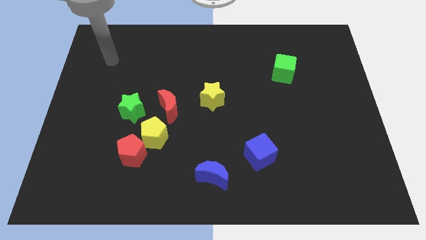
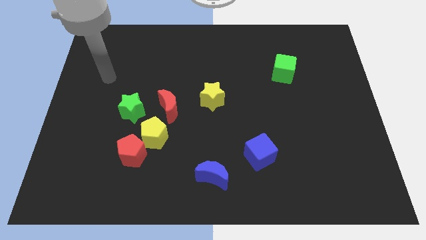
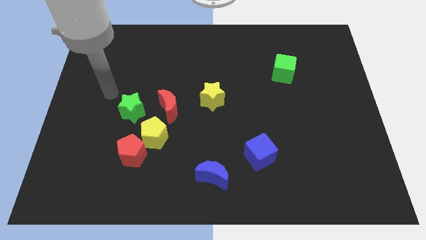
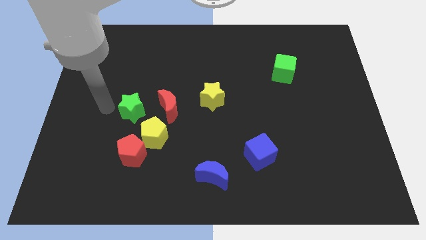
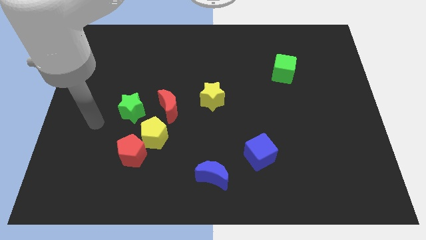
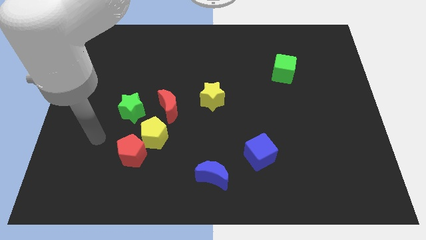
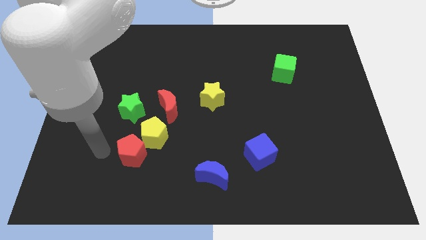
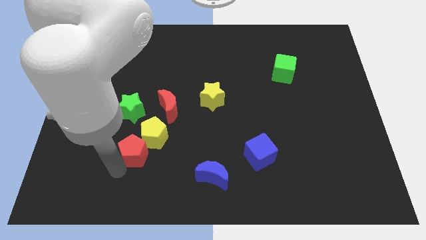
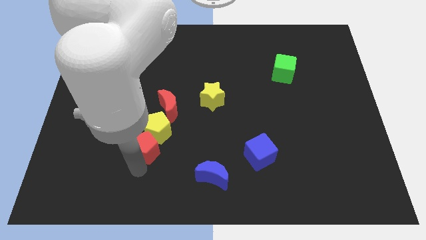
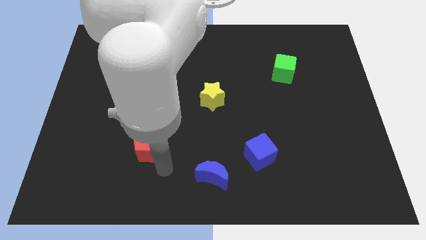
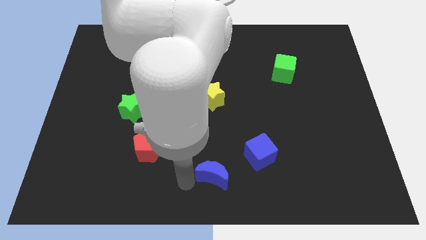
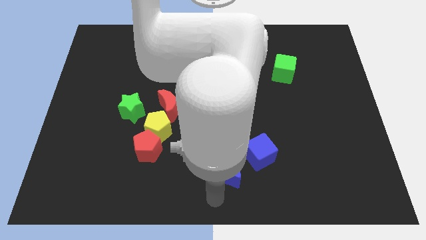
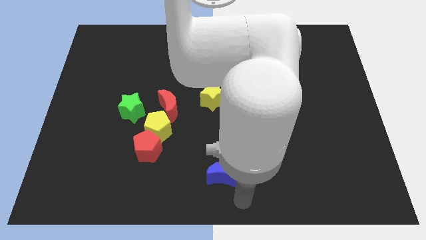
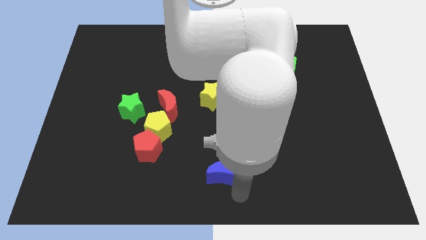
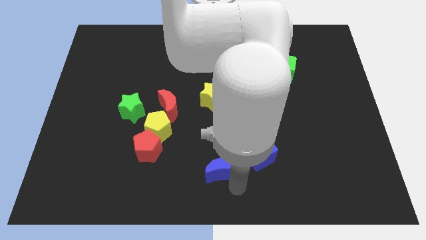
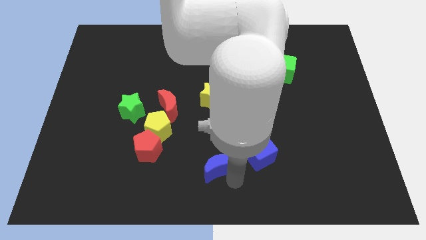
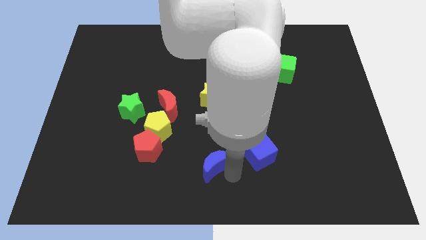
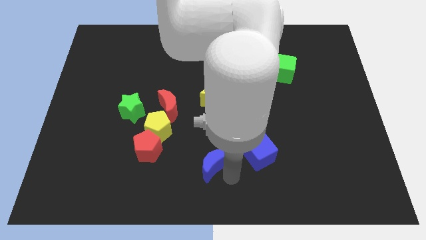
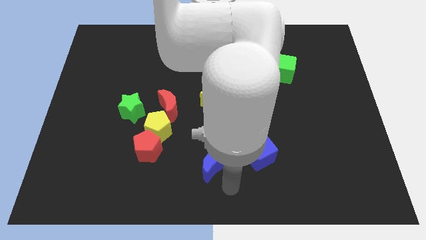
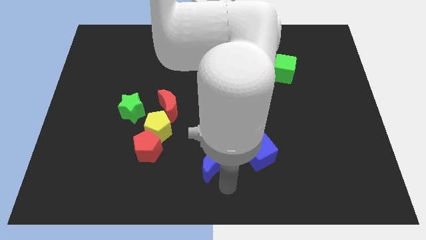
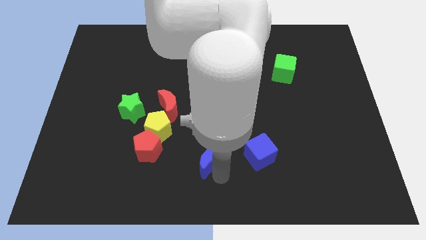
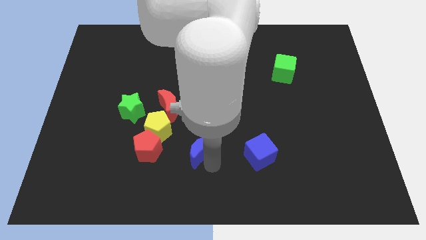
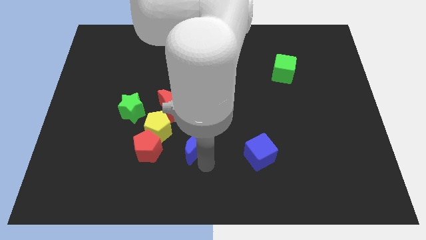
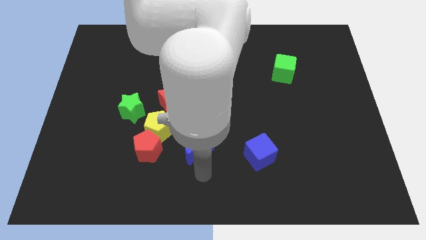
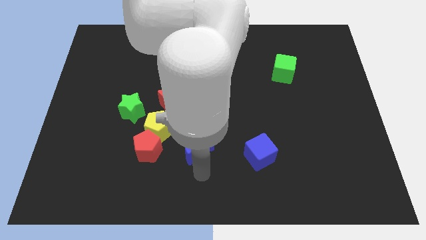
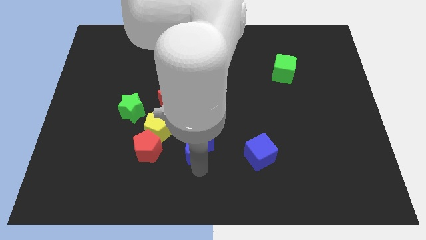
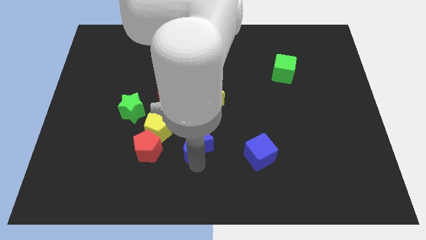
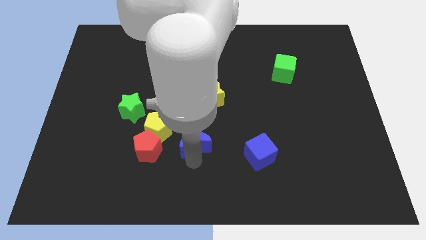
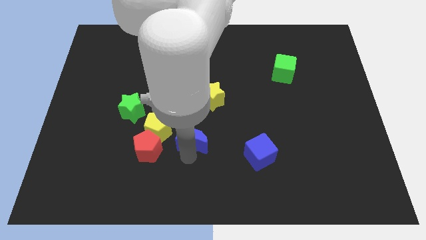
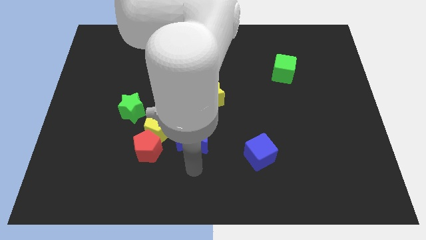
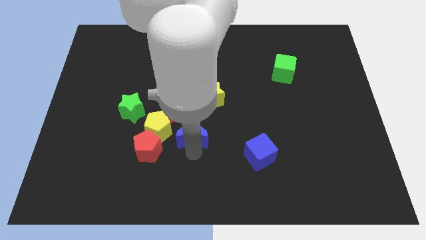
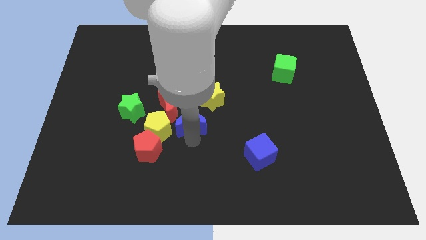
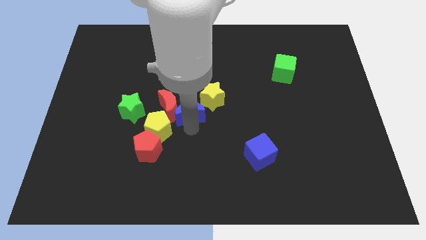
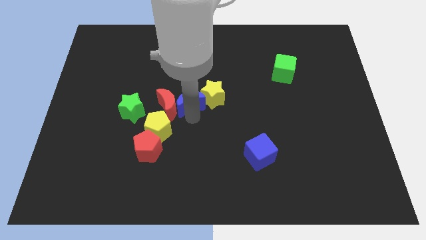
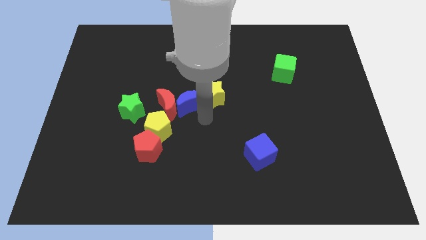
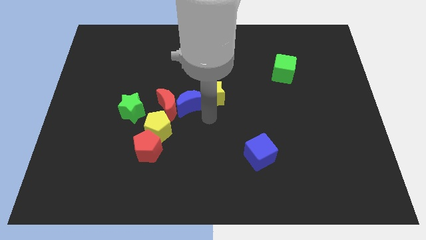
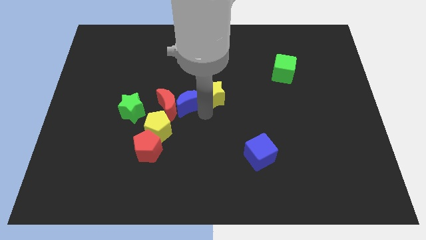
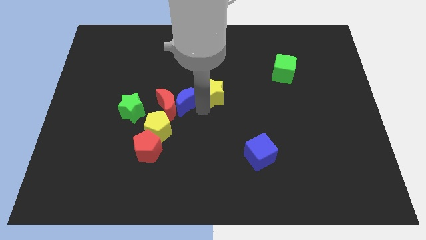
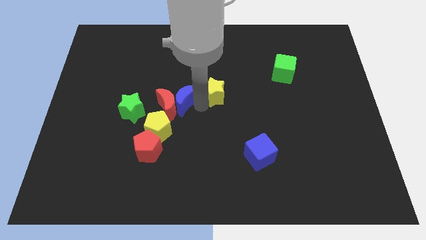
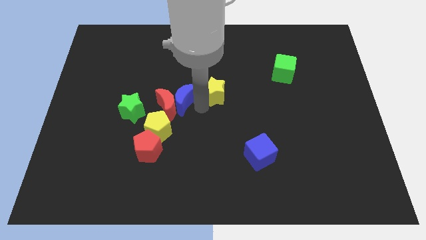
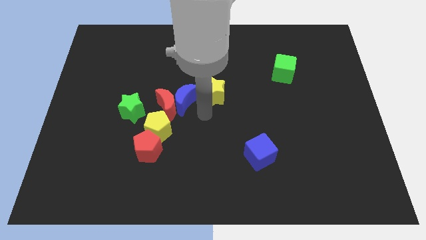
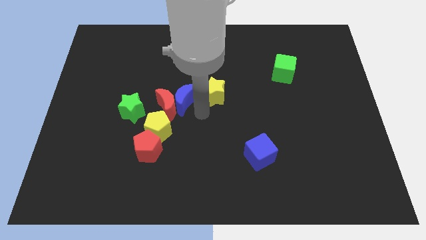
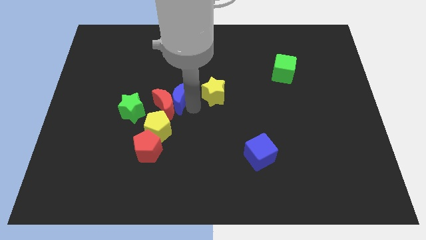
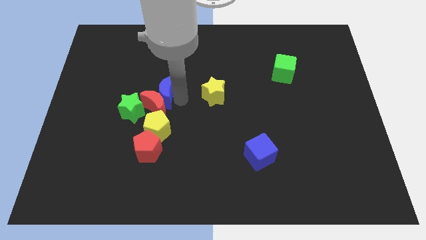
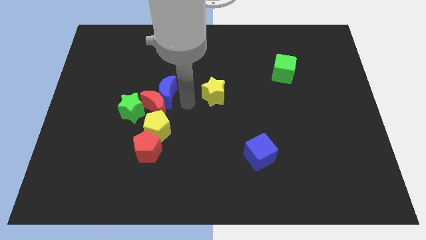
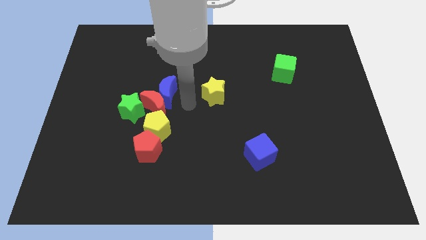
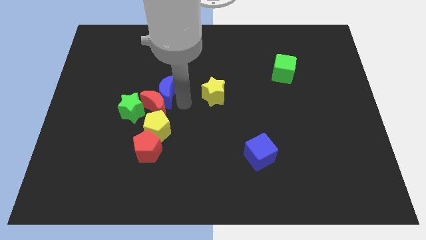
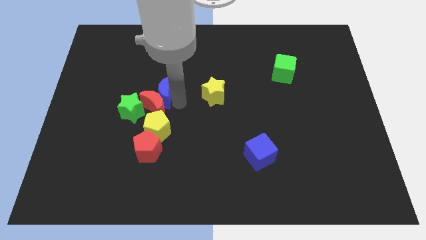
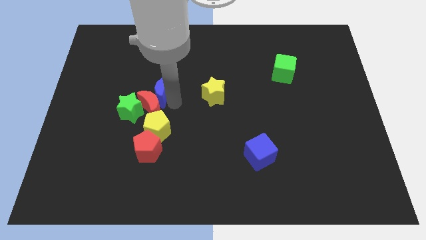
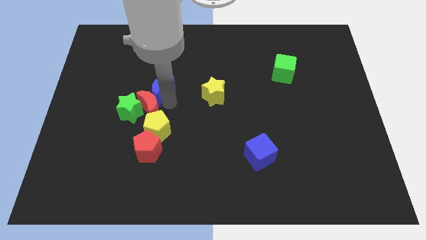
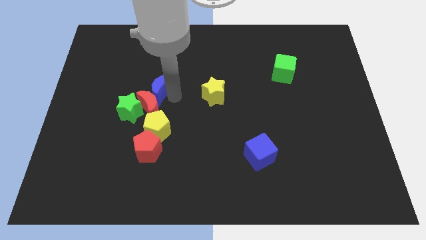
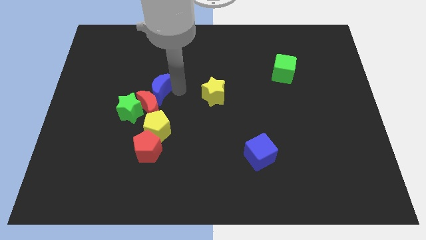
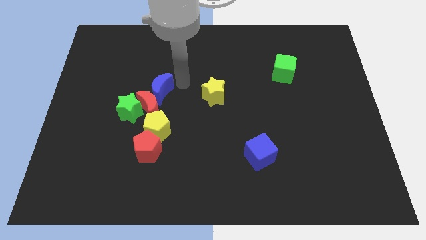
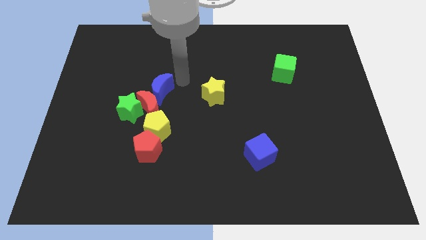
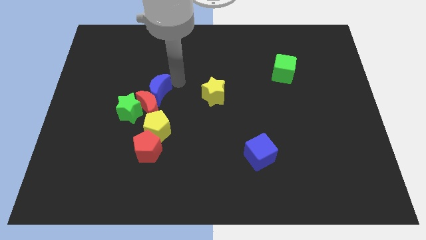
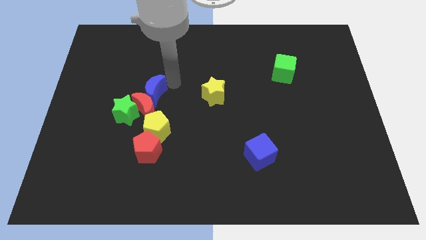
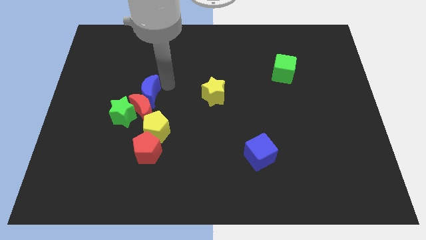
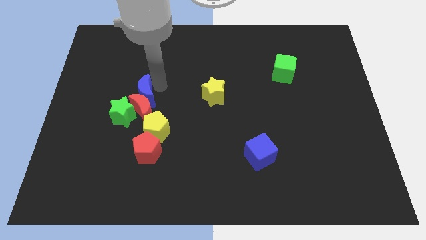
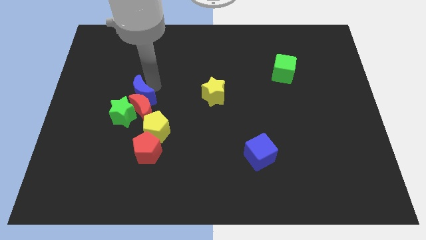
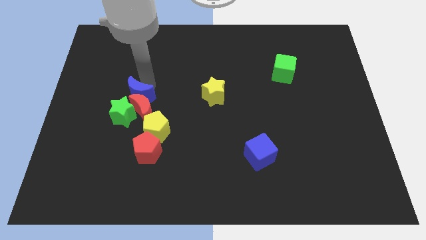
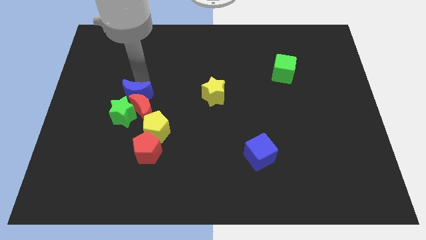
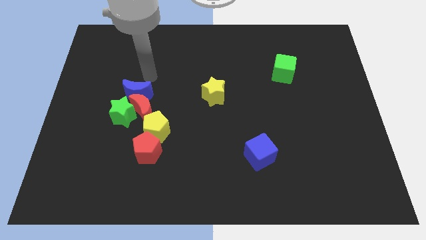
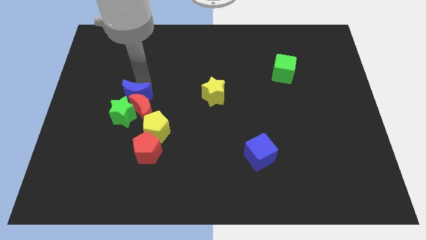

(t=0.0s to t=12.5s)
move the blue moon next to the green star

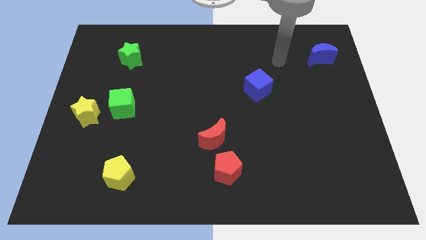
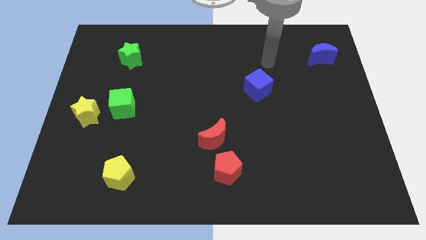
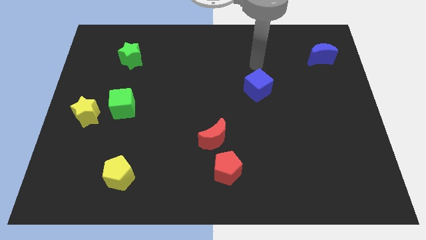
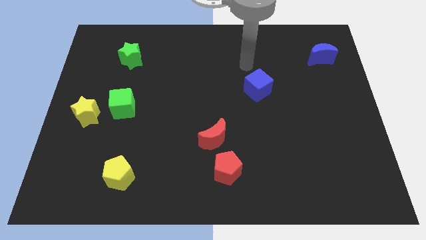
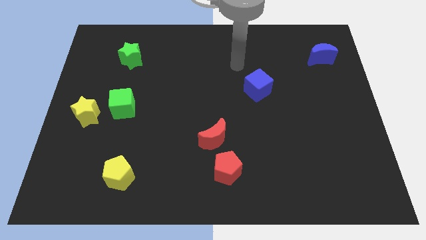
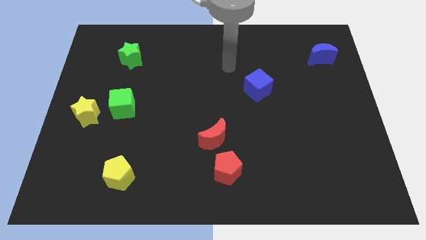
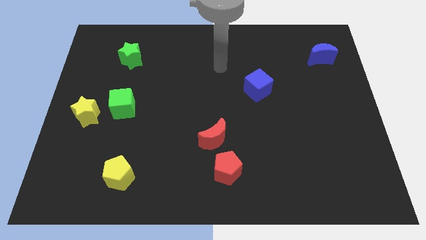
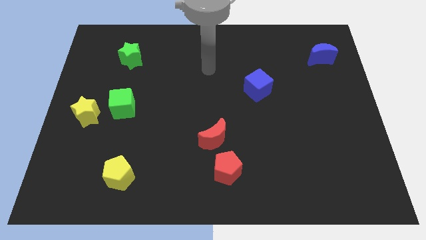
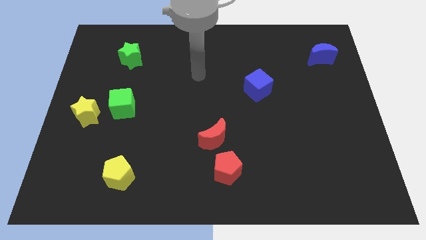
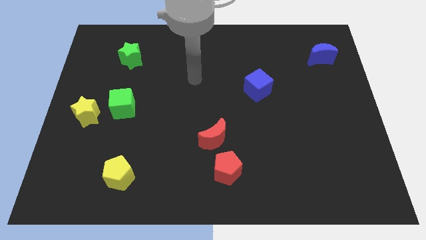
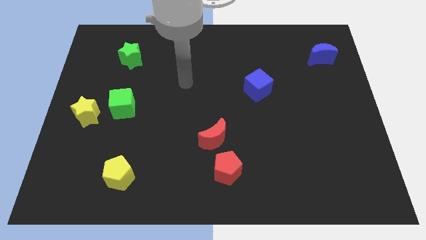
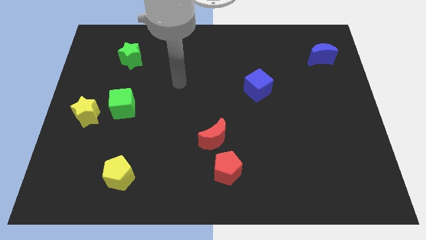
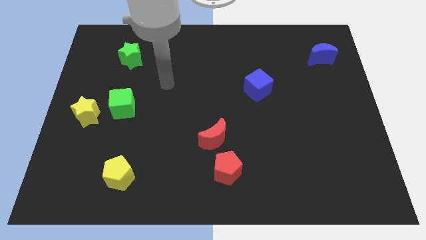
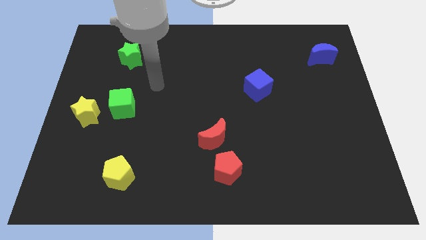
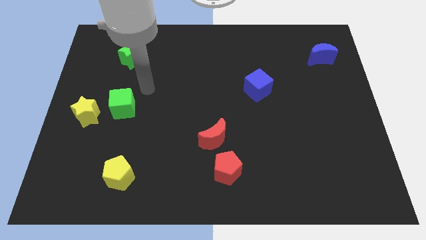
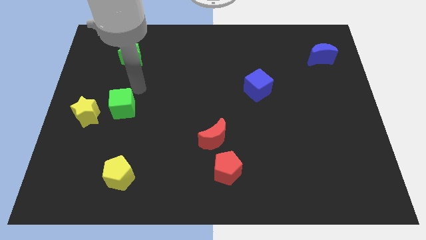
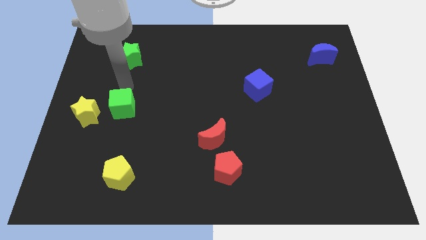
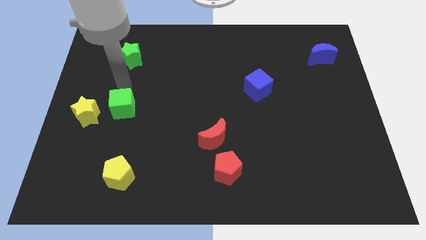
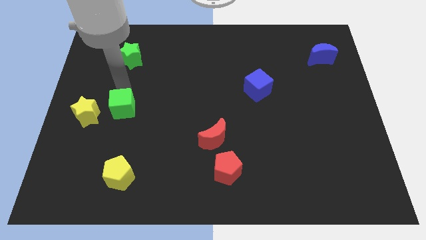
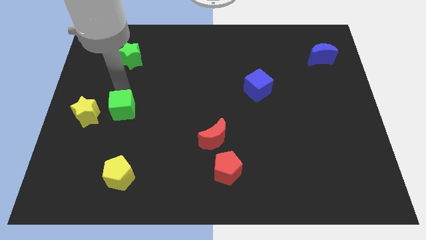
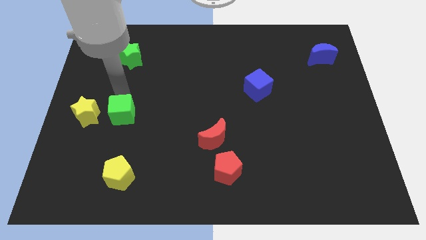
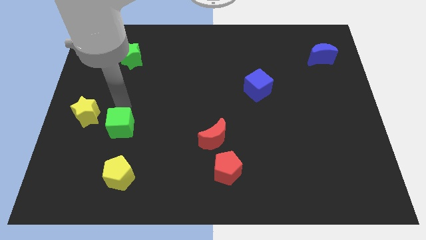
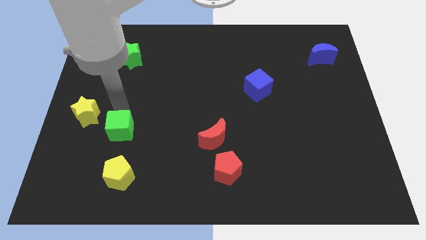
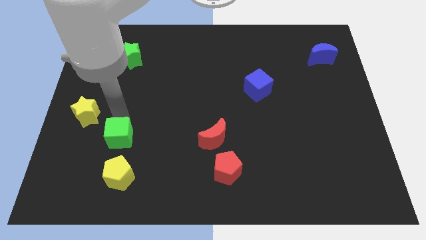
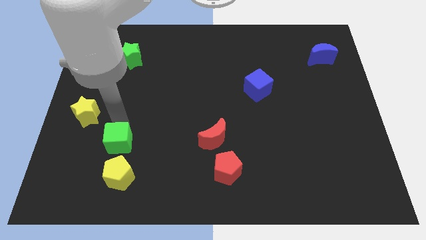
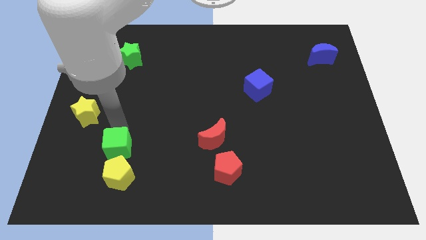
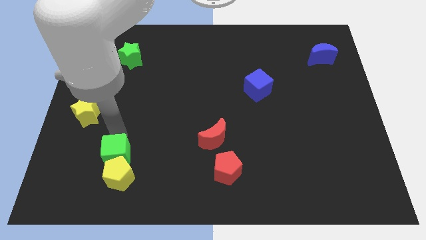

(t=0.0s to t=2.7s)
move the green cube towards the yellow pentagon
